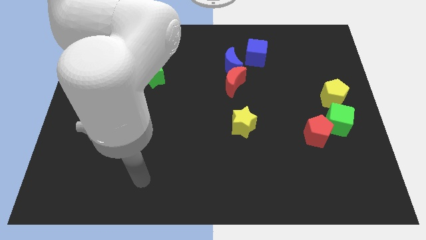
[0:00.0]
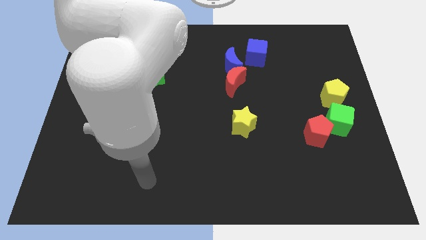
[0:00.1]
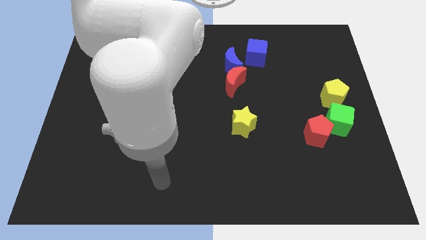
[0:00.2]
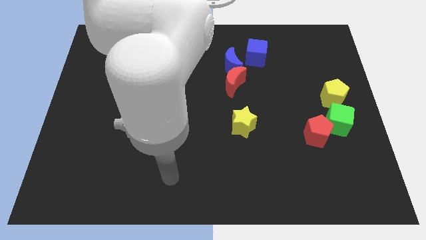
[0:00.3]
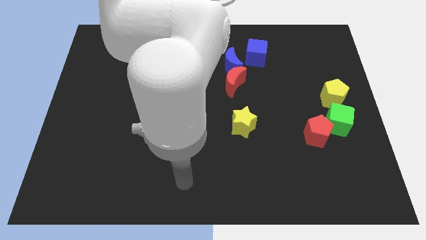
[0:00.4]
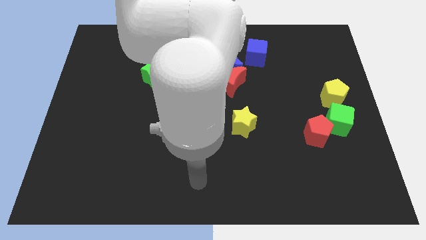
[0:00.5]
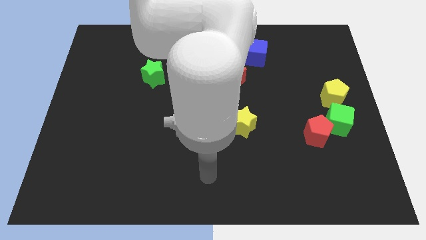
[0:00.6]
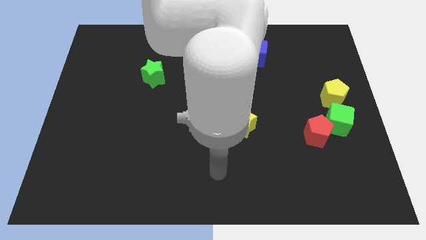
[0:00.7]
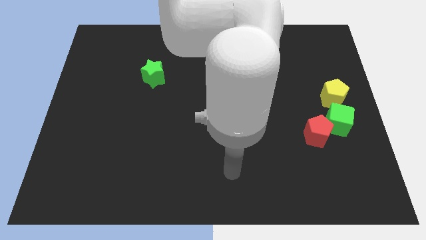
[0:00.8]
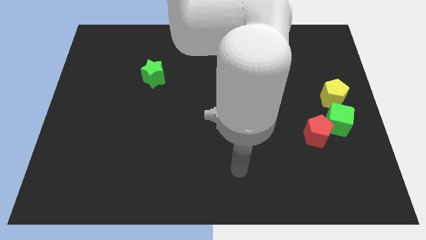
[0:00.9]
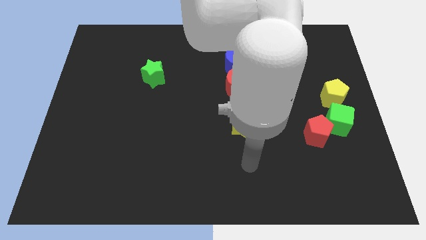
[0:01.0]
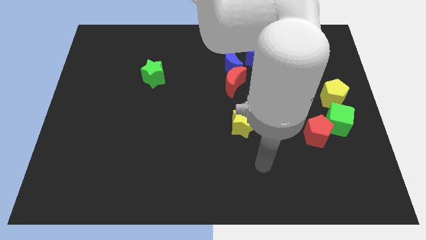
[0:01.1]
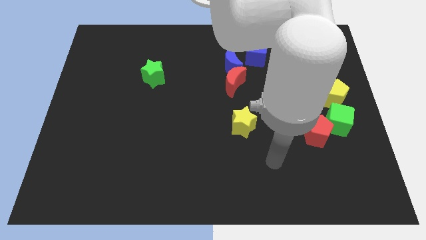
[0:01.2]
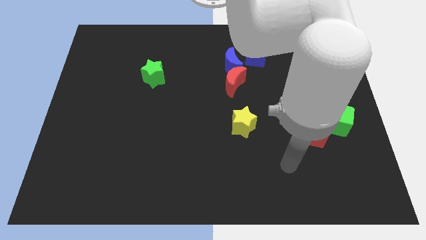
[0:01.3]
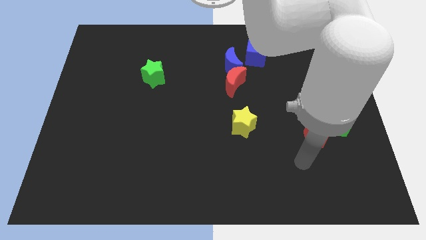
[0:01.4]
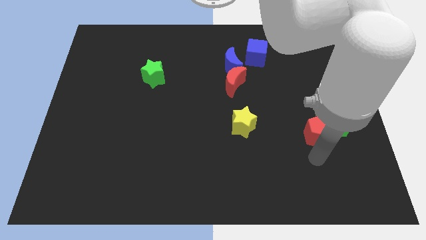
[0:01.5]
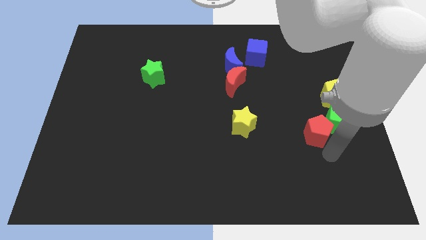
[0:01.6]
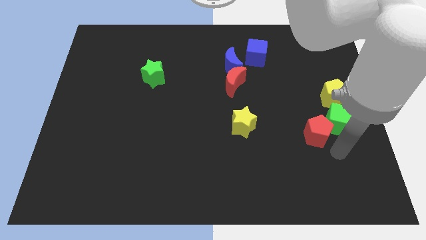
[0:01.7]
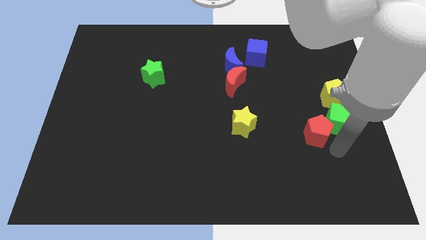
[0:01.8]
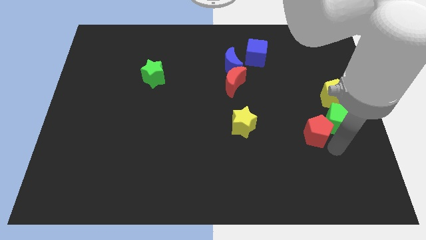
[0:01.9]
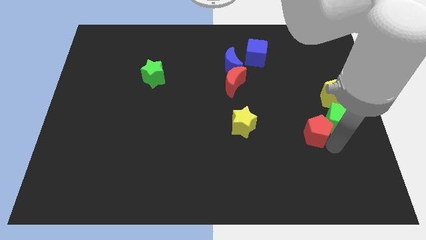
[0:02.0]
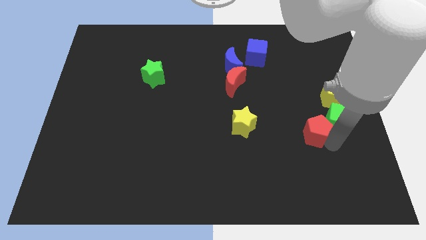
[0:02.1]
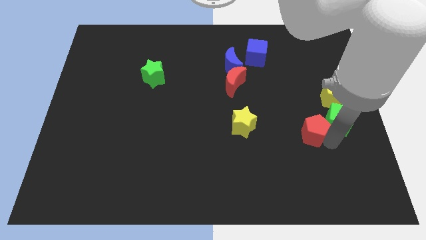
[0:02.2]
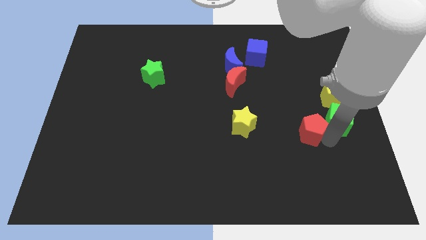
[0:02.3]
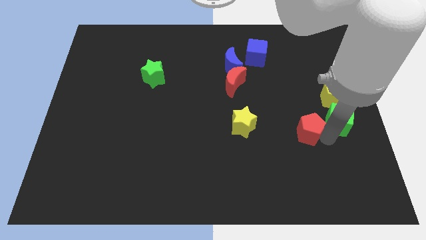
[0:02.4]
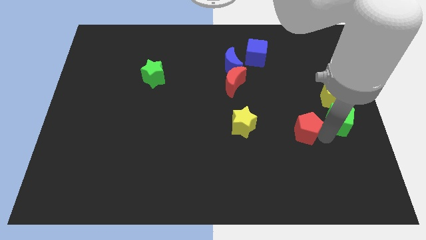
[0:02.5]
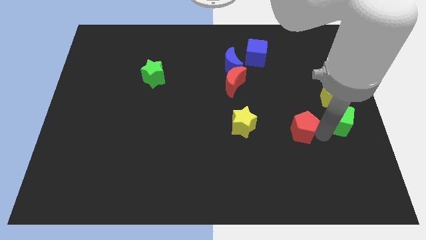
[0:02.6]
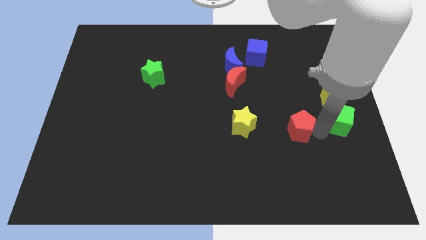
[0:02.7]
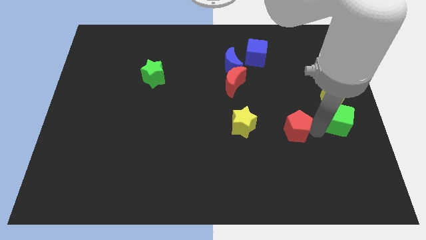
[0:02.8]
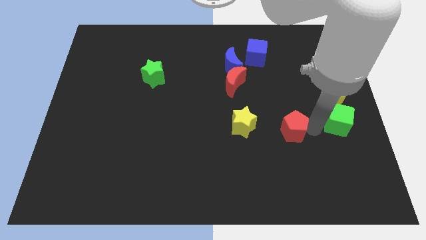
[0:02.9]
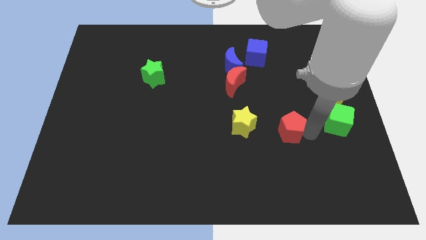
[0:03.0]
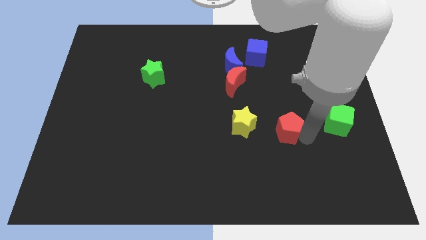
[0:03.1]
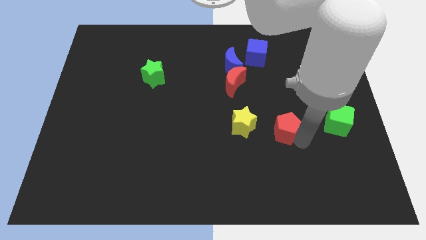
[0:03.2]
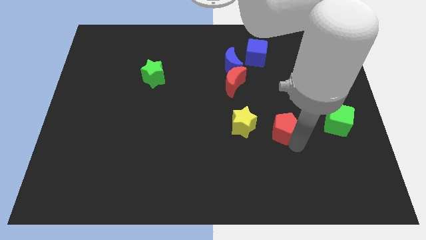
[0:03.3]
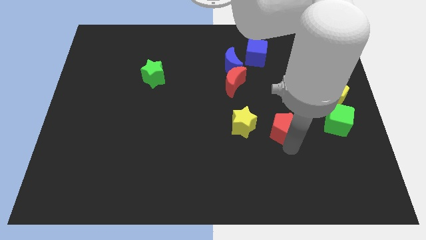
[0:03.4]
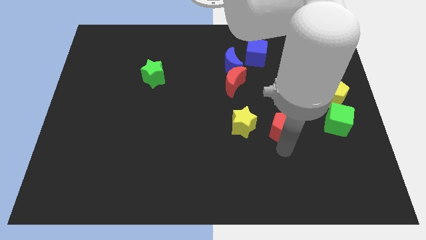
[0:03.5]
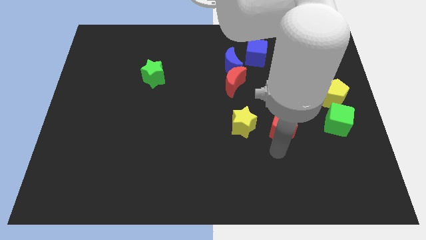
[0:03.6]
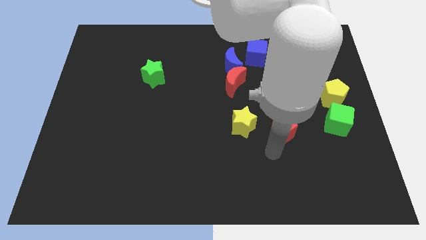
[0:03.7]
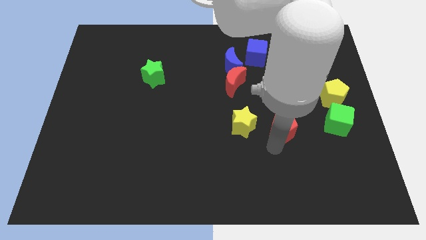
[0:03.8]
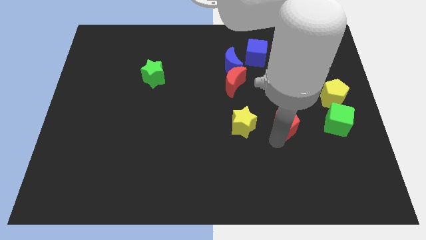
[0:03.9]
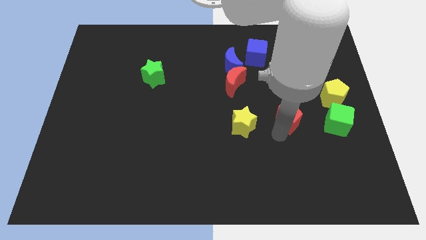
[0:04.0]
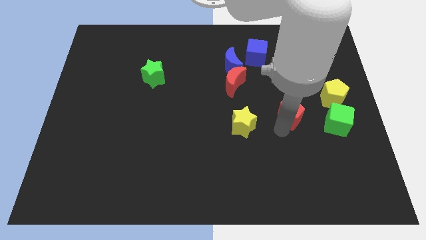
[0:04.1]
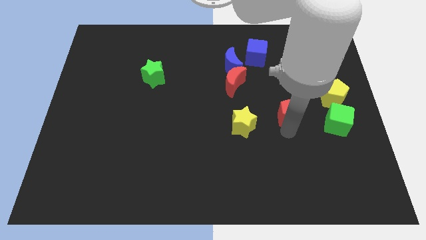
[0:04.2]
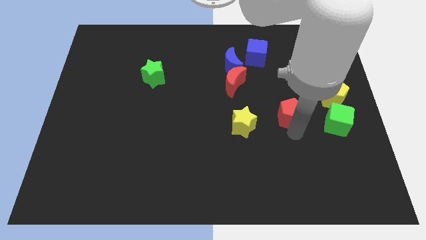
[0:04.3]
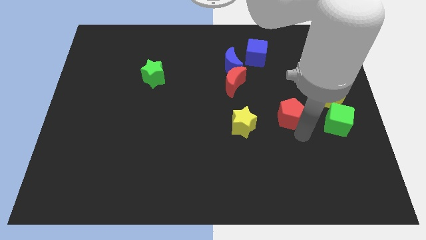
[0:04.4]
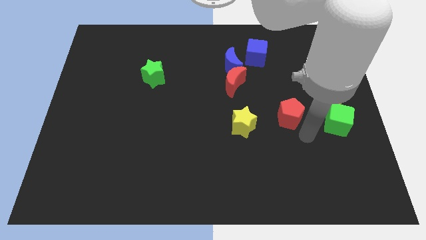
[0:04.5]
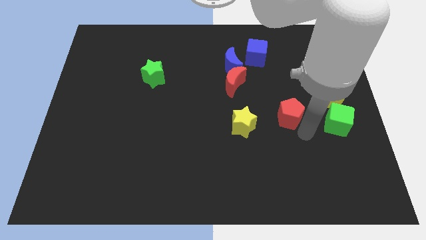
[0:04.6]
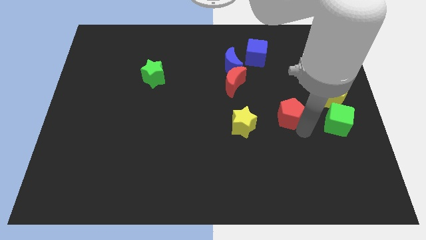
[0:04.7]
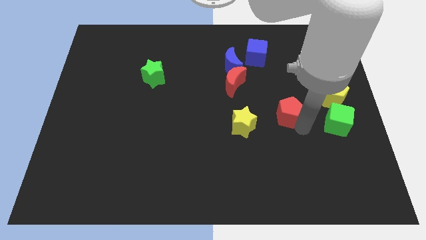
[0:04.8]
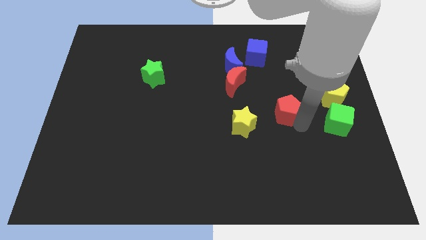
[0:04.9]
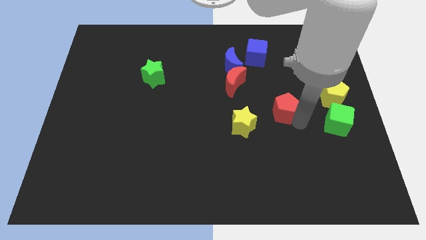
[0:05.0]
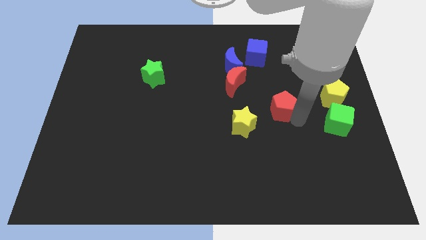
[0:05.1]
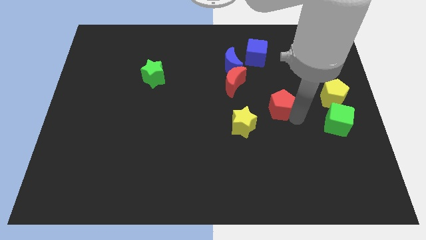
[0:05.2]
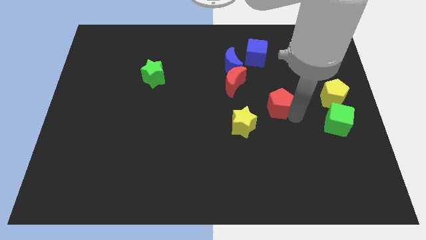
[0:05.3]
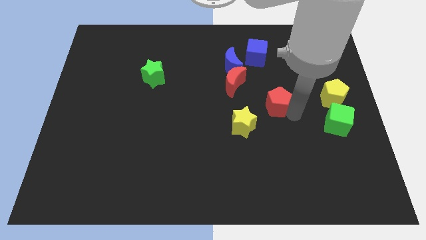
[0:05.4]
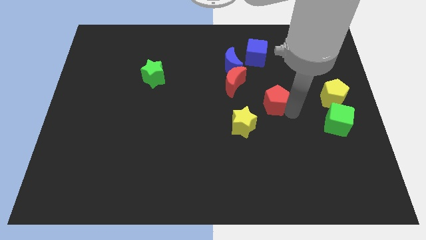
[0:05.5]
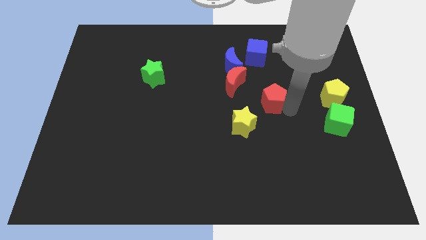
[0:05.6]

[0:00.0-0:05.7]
put the red pentagon to the bottom of the blue cube
